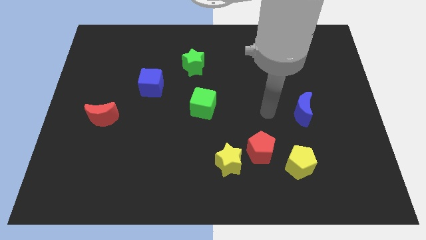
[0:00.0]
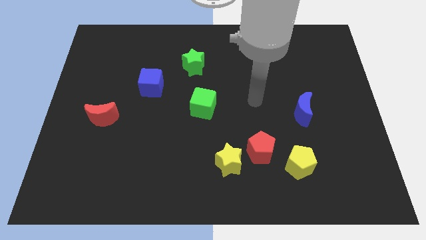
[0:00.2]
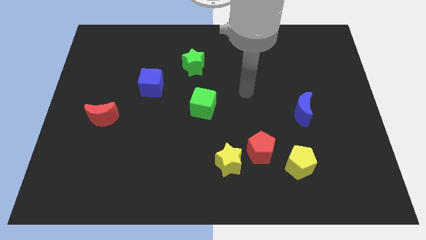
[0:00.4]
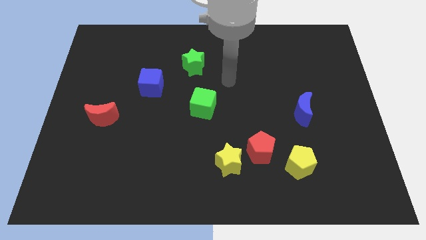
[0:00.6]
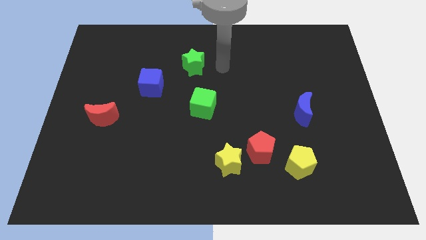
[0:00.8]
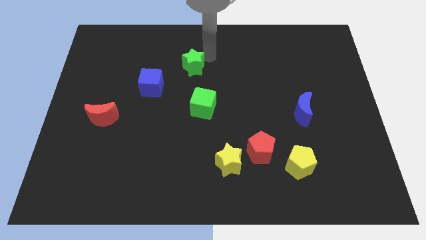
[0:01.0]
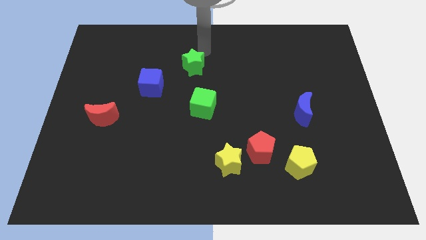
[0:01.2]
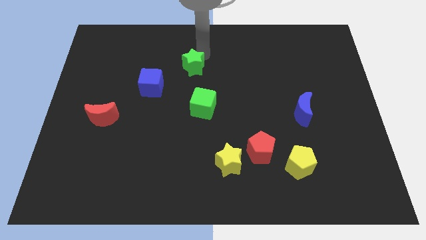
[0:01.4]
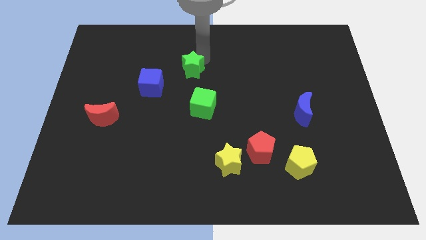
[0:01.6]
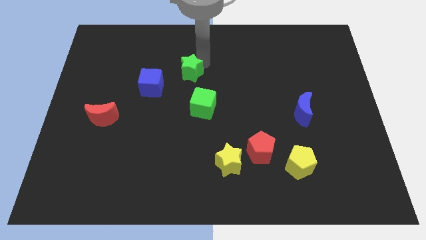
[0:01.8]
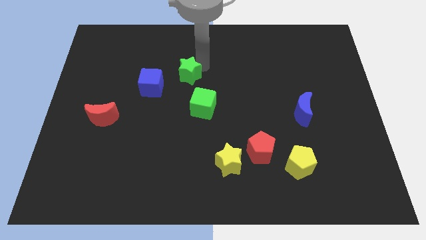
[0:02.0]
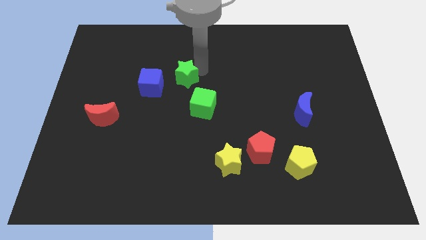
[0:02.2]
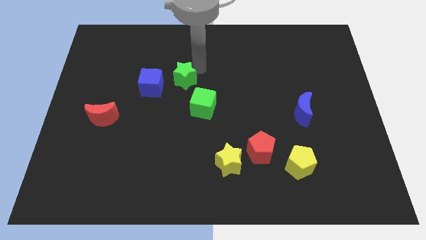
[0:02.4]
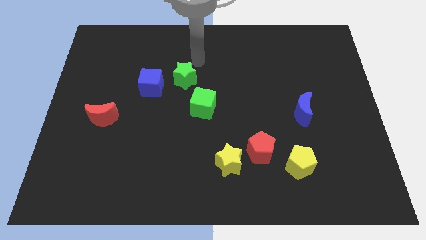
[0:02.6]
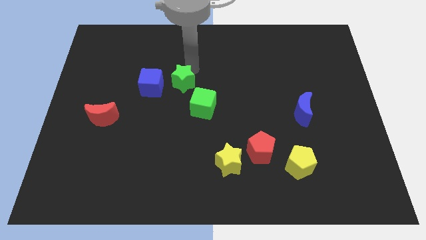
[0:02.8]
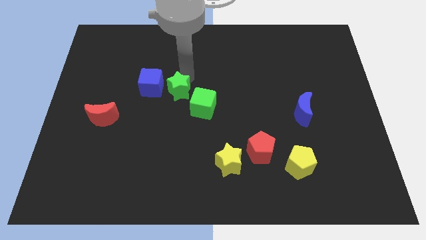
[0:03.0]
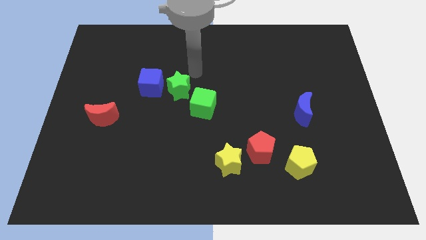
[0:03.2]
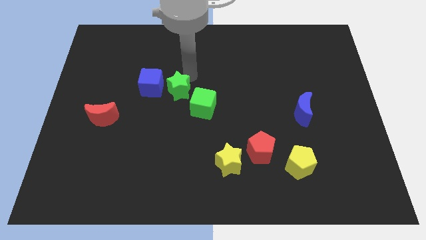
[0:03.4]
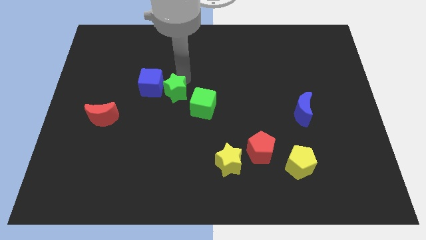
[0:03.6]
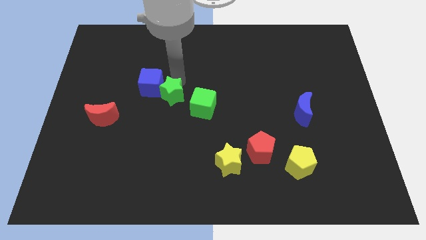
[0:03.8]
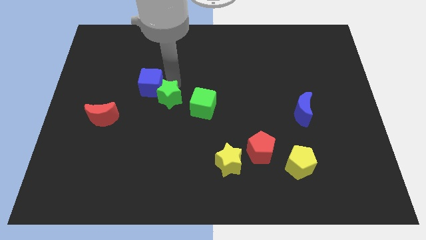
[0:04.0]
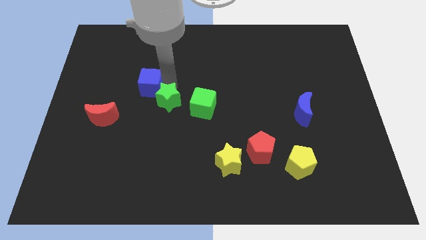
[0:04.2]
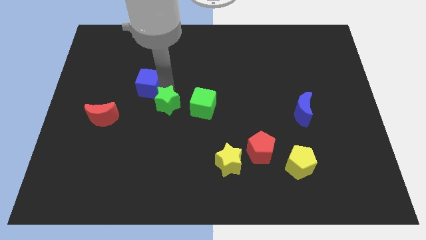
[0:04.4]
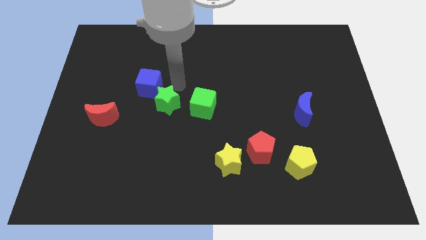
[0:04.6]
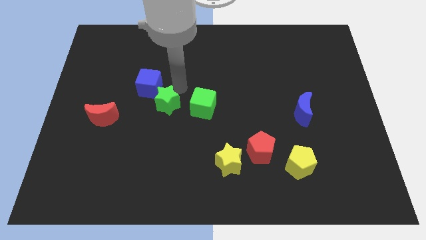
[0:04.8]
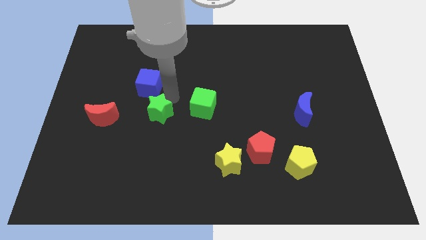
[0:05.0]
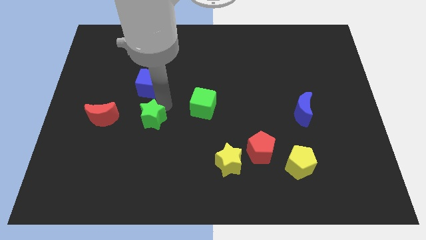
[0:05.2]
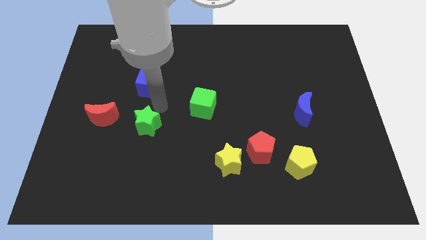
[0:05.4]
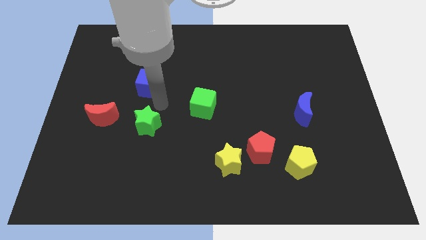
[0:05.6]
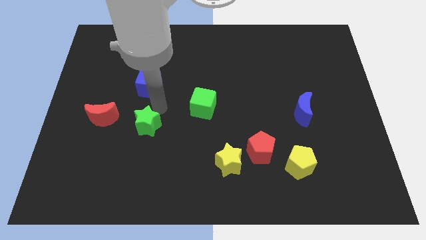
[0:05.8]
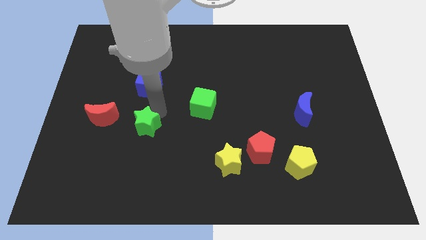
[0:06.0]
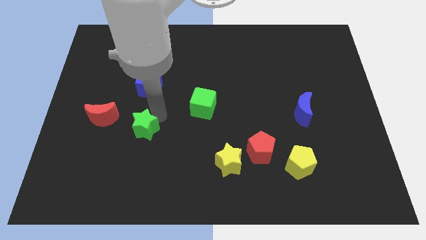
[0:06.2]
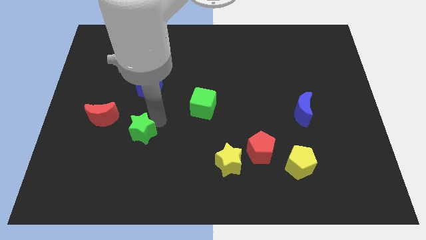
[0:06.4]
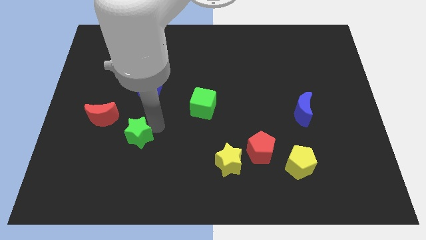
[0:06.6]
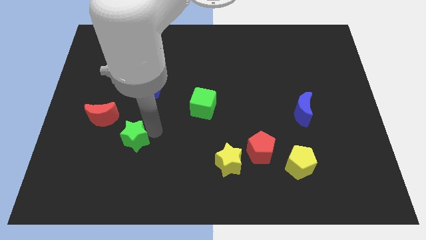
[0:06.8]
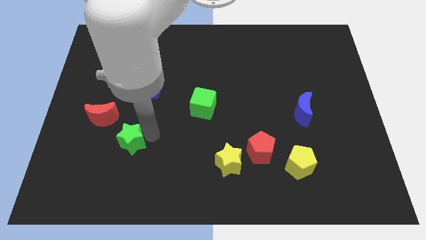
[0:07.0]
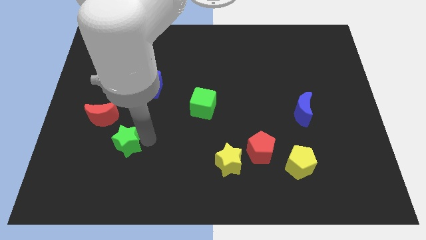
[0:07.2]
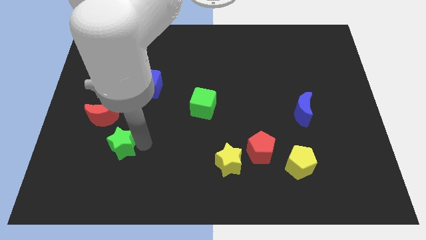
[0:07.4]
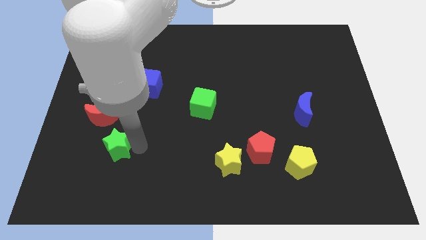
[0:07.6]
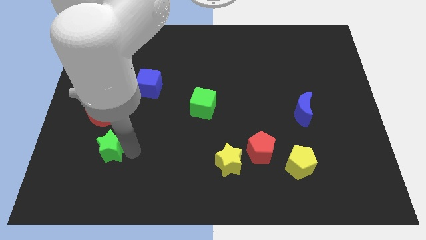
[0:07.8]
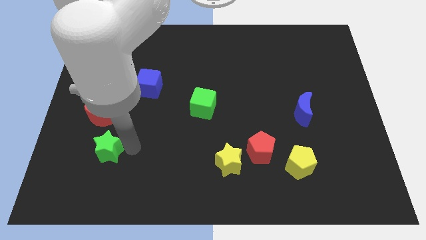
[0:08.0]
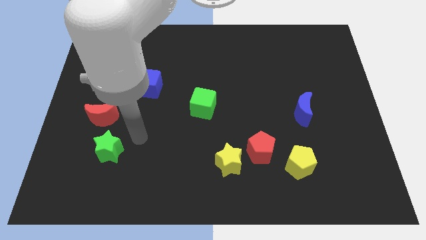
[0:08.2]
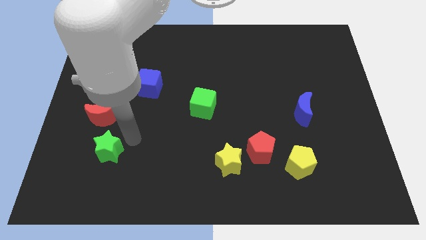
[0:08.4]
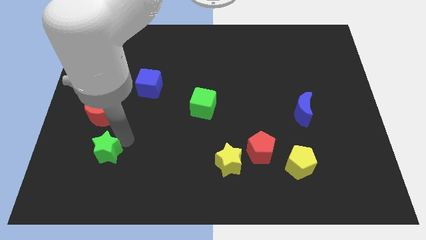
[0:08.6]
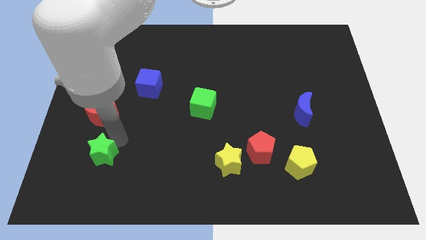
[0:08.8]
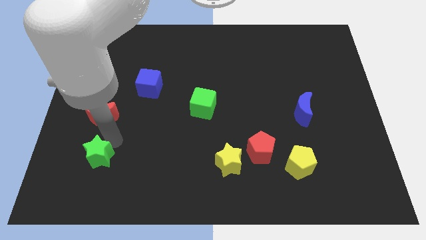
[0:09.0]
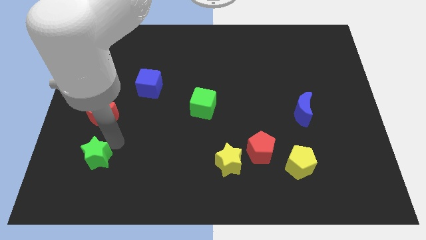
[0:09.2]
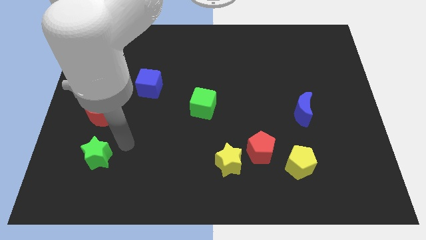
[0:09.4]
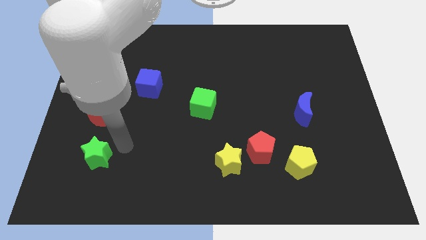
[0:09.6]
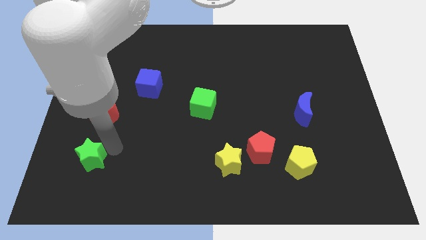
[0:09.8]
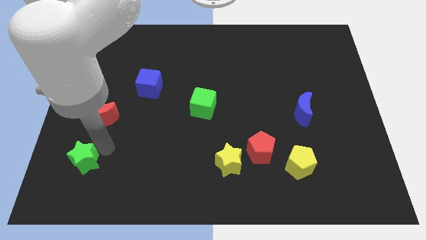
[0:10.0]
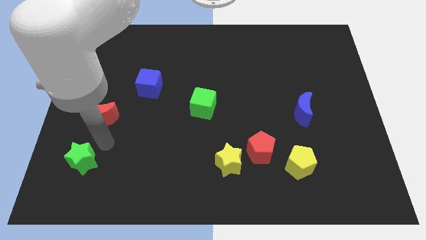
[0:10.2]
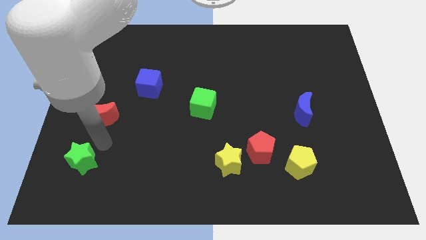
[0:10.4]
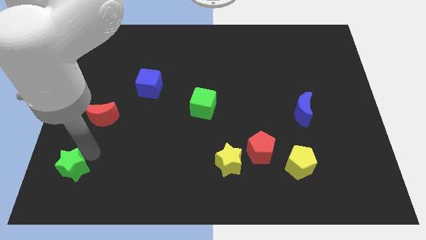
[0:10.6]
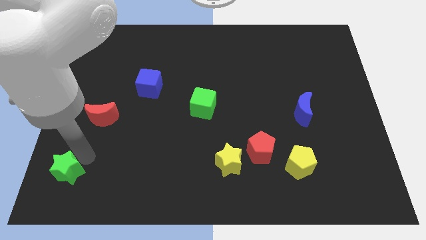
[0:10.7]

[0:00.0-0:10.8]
move the green star to the bottom left corner

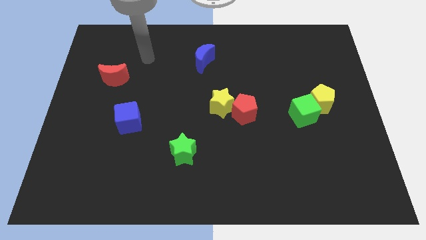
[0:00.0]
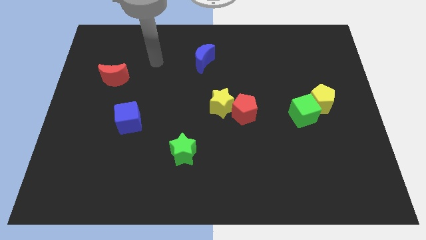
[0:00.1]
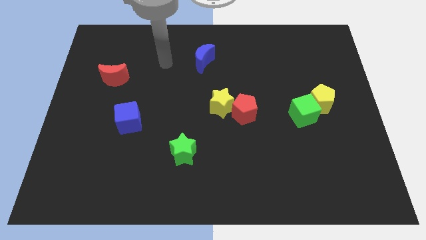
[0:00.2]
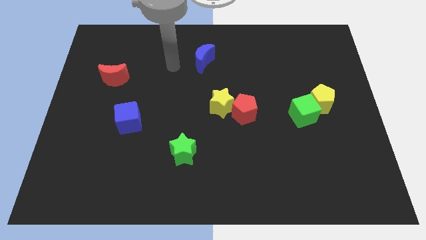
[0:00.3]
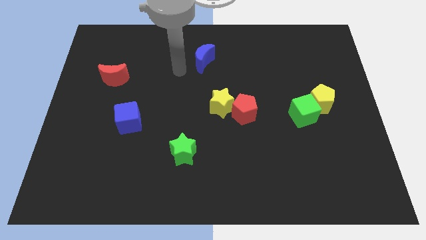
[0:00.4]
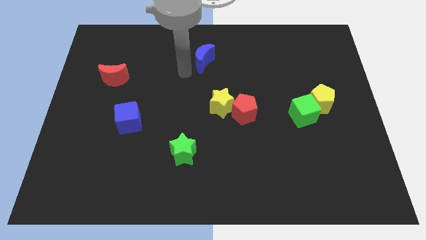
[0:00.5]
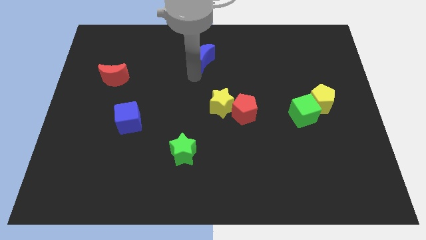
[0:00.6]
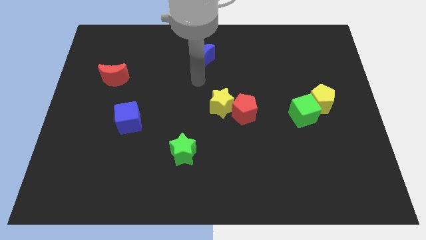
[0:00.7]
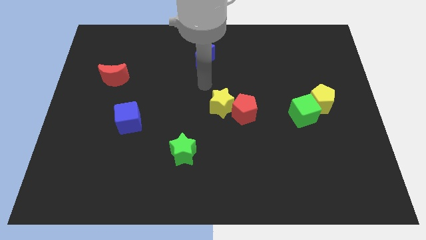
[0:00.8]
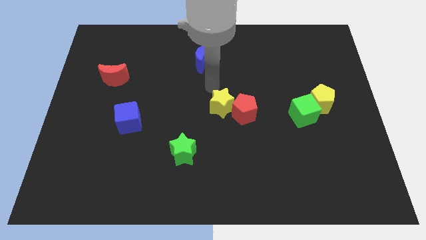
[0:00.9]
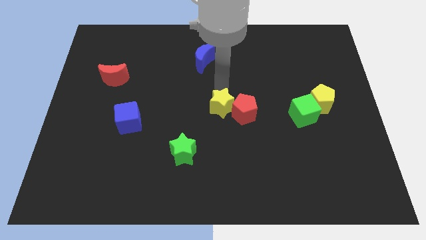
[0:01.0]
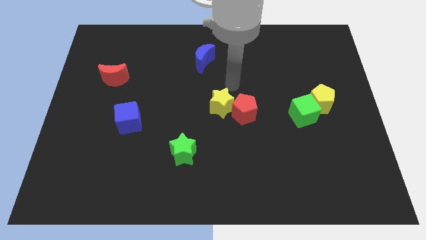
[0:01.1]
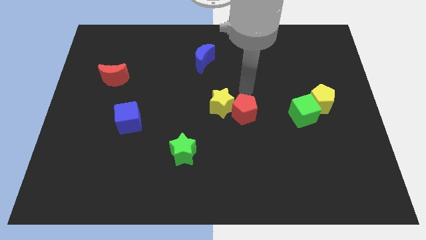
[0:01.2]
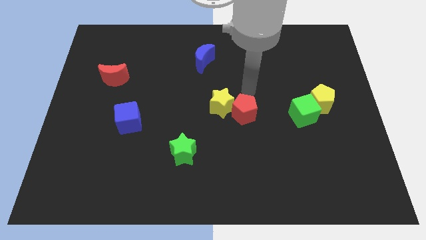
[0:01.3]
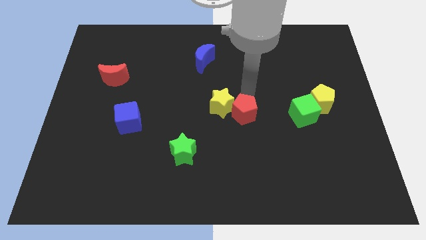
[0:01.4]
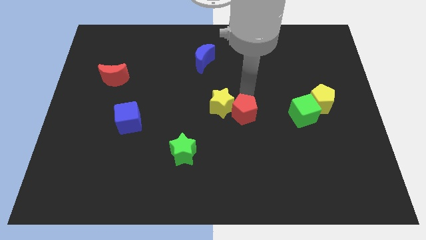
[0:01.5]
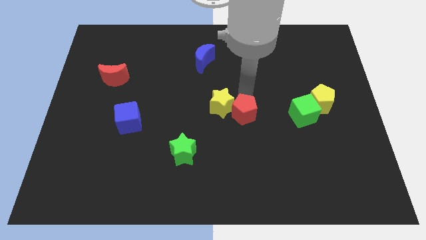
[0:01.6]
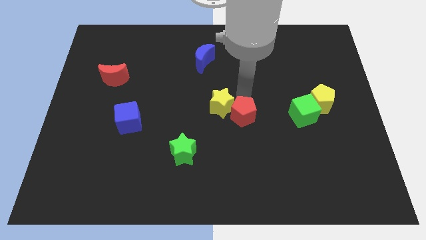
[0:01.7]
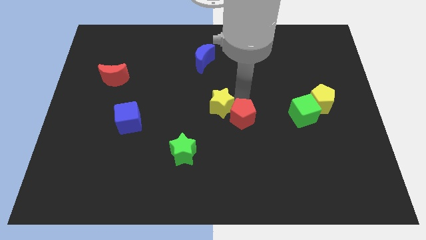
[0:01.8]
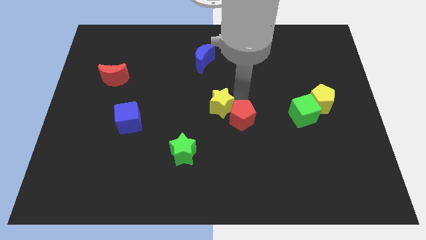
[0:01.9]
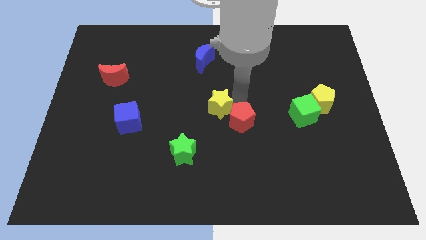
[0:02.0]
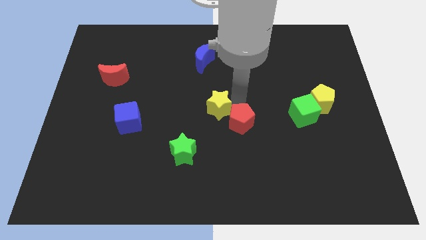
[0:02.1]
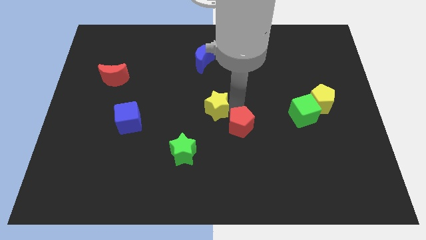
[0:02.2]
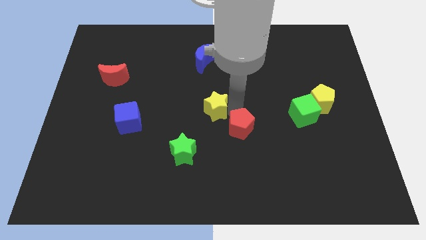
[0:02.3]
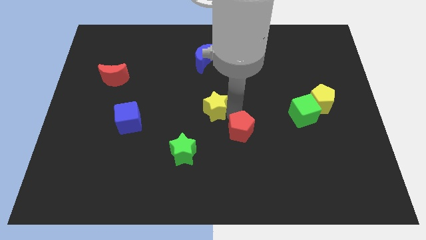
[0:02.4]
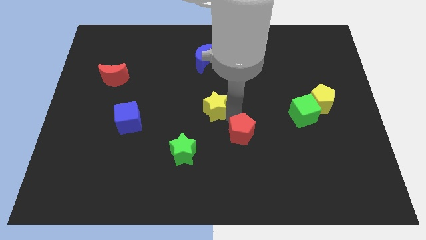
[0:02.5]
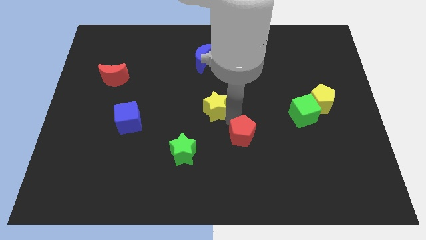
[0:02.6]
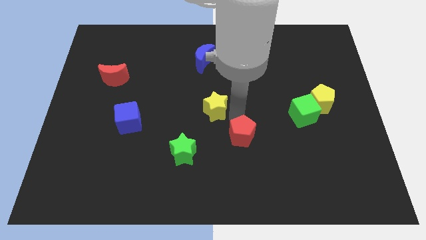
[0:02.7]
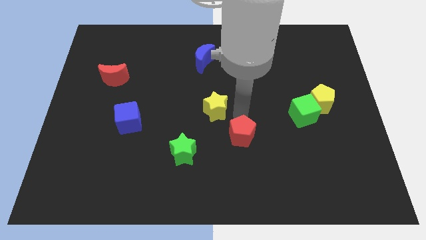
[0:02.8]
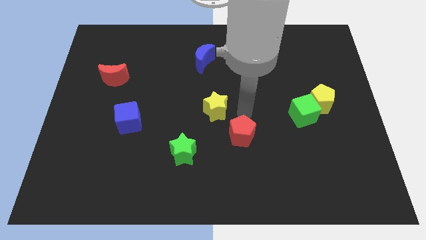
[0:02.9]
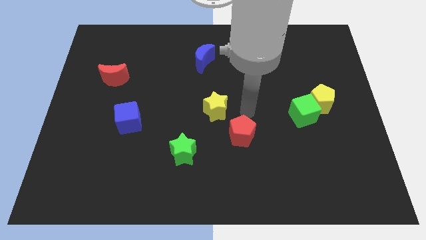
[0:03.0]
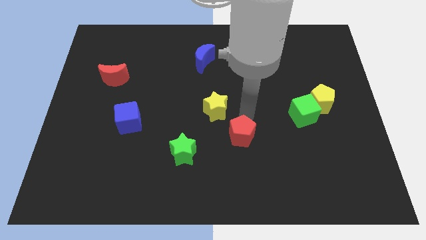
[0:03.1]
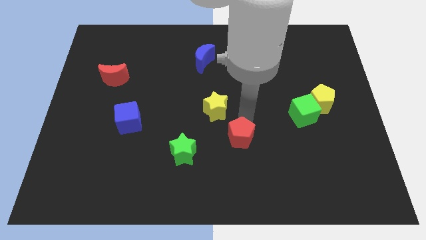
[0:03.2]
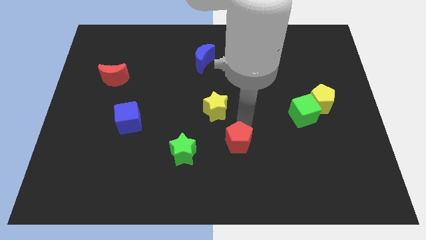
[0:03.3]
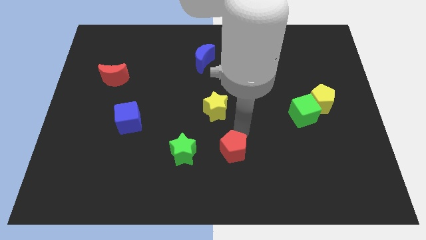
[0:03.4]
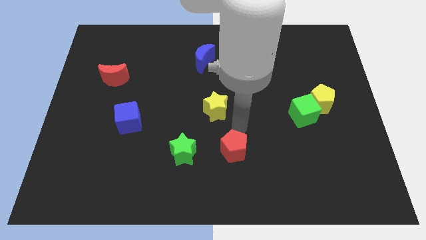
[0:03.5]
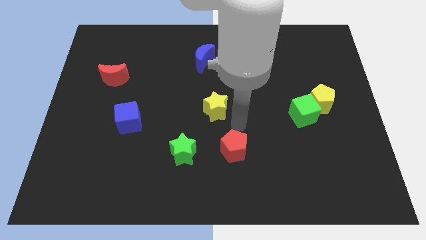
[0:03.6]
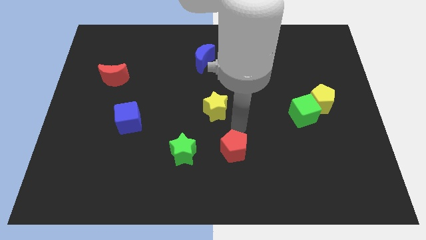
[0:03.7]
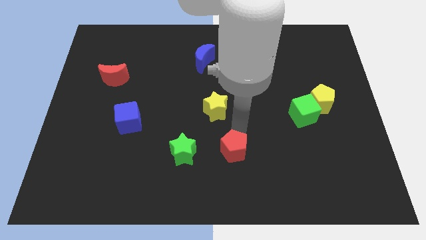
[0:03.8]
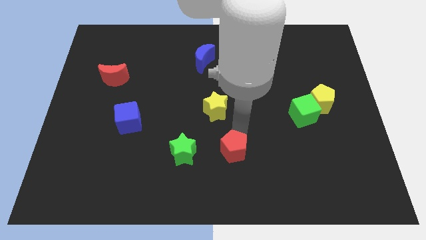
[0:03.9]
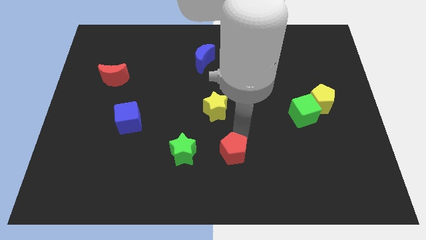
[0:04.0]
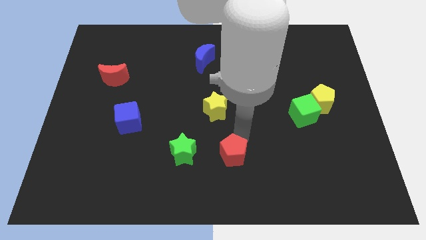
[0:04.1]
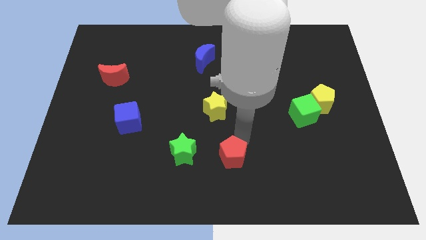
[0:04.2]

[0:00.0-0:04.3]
push the red pentagon to the bottom
